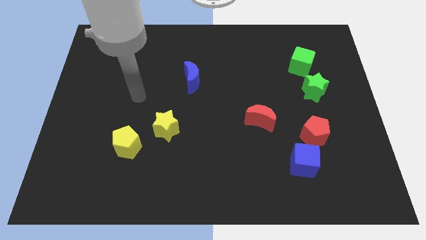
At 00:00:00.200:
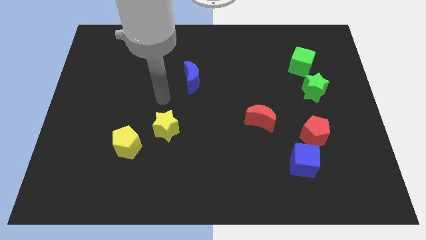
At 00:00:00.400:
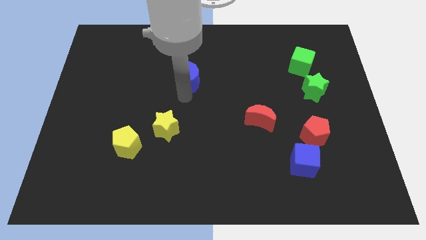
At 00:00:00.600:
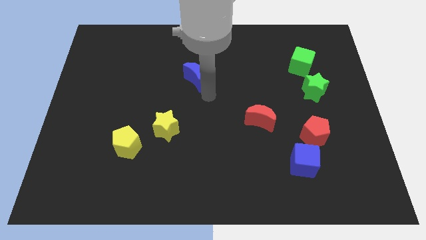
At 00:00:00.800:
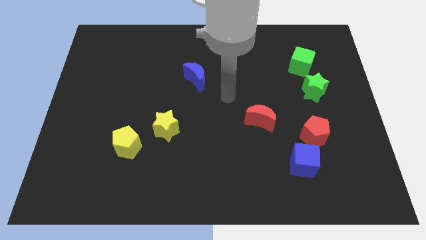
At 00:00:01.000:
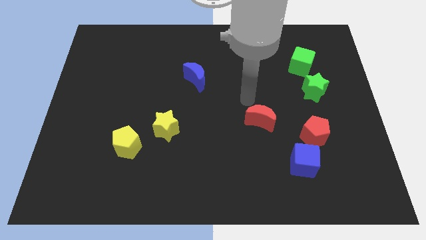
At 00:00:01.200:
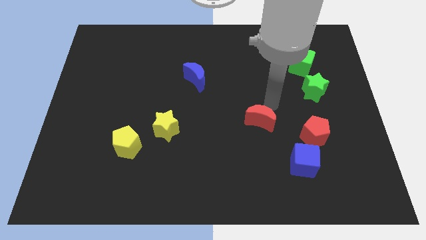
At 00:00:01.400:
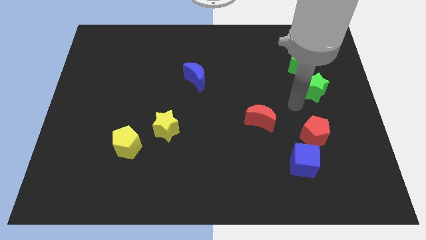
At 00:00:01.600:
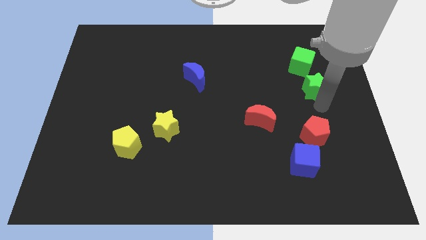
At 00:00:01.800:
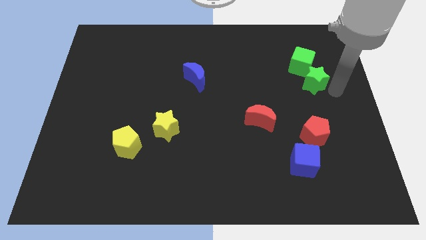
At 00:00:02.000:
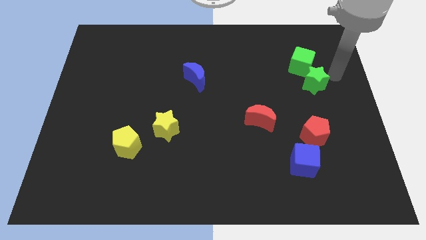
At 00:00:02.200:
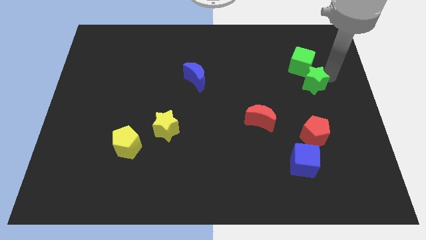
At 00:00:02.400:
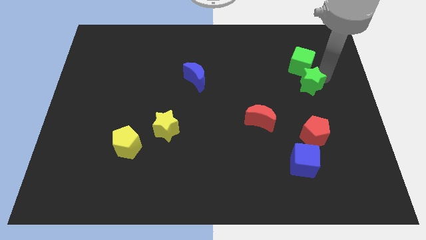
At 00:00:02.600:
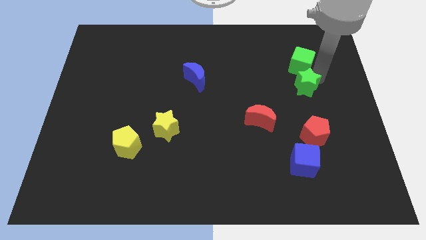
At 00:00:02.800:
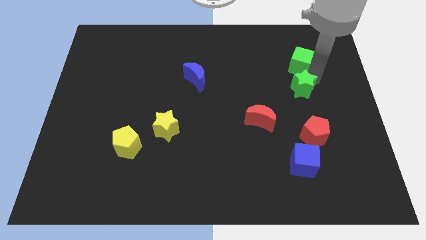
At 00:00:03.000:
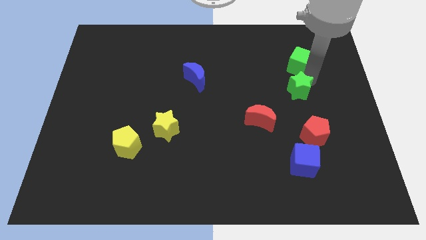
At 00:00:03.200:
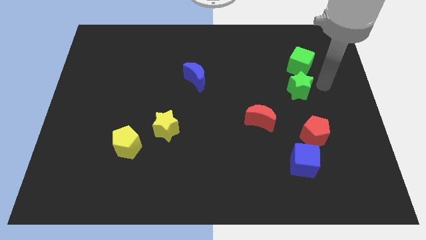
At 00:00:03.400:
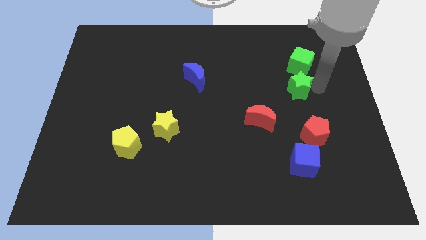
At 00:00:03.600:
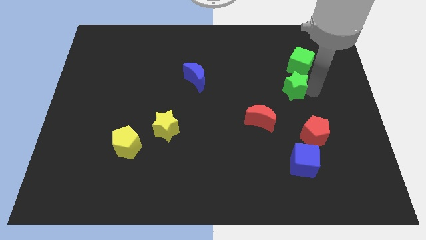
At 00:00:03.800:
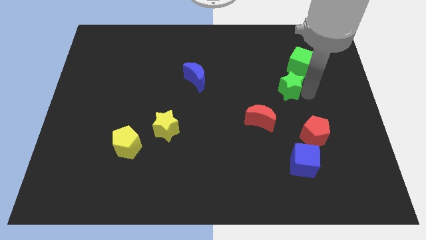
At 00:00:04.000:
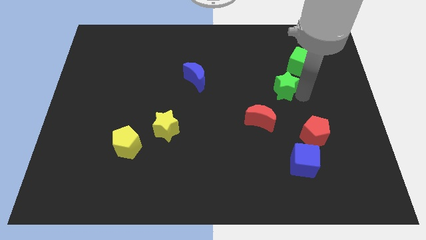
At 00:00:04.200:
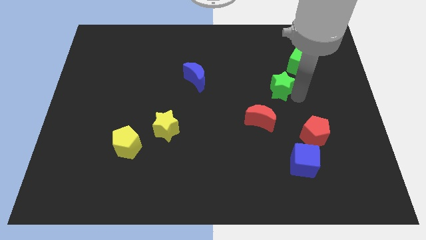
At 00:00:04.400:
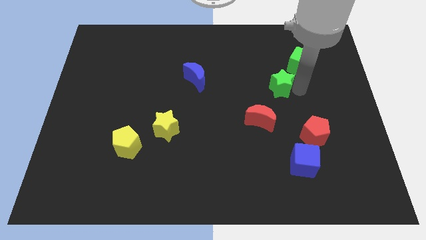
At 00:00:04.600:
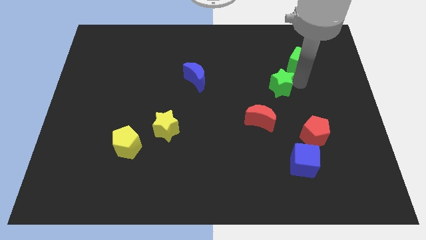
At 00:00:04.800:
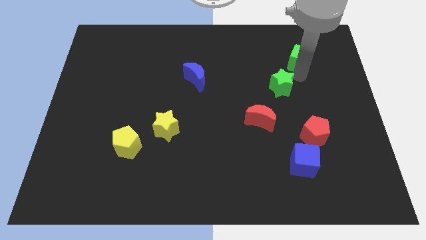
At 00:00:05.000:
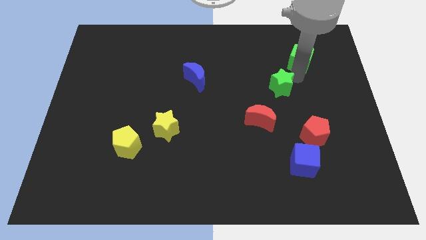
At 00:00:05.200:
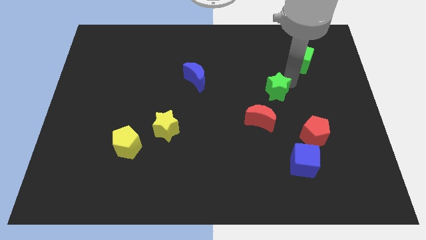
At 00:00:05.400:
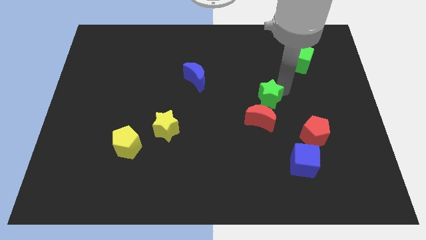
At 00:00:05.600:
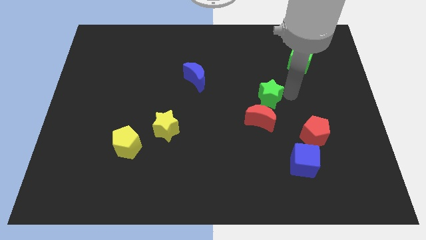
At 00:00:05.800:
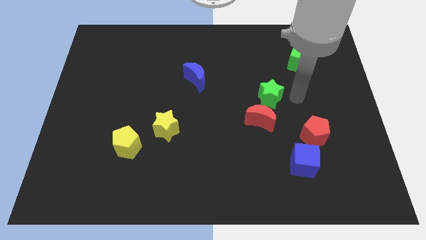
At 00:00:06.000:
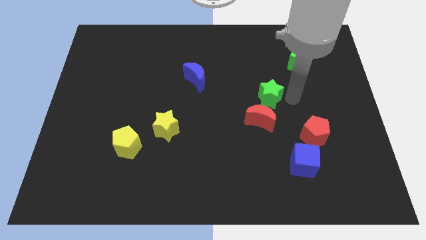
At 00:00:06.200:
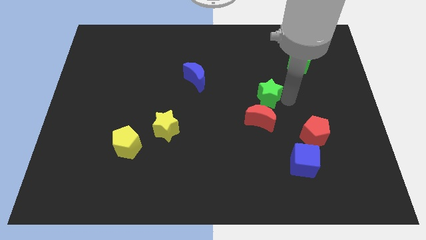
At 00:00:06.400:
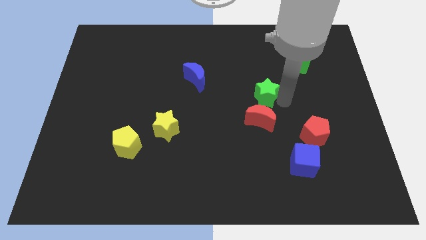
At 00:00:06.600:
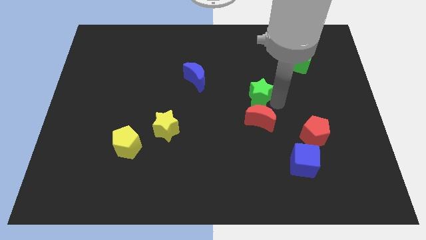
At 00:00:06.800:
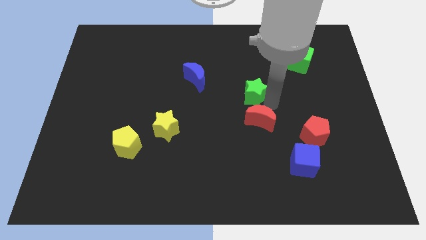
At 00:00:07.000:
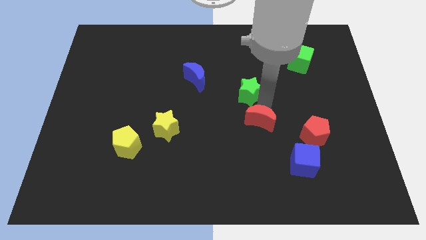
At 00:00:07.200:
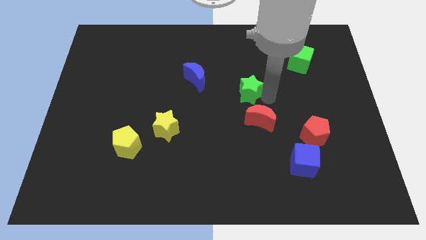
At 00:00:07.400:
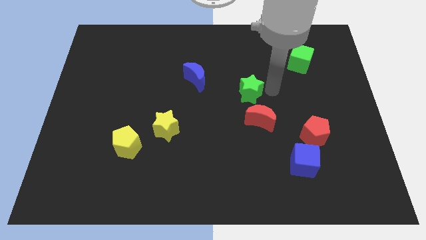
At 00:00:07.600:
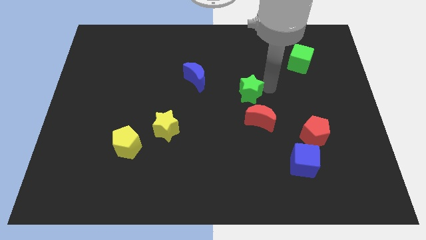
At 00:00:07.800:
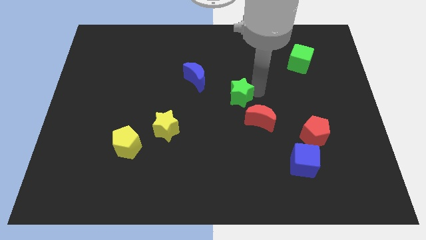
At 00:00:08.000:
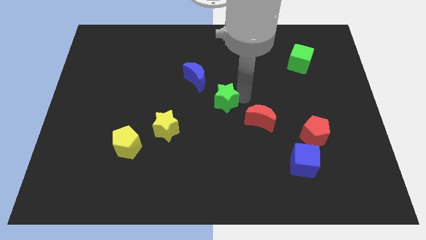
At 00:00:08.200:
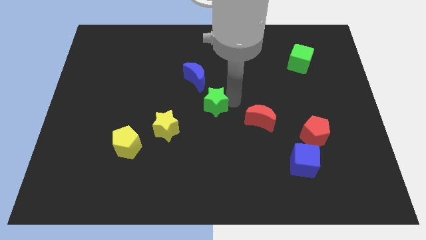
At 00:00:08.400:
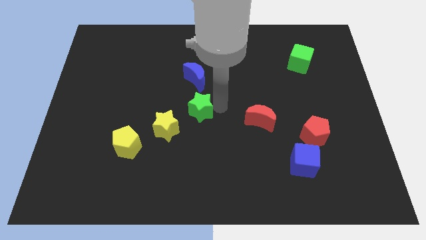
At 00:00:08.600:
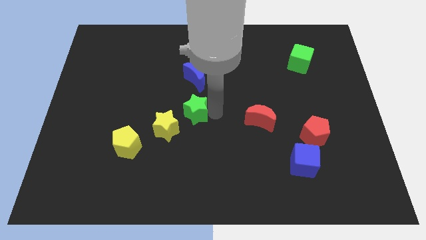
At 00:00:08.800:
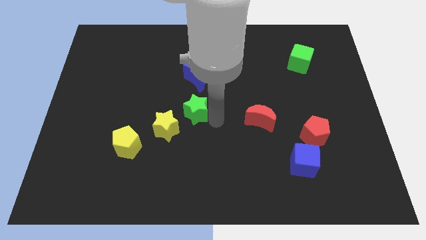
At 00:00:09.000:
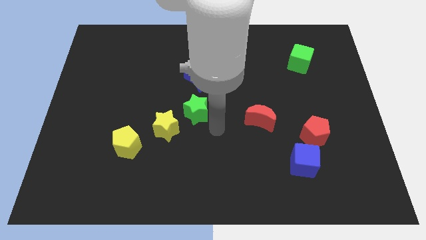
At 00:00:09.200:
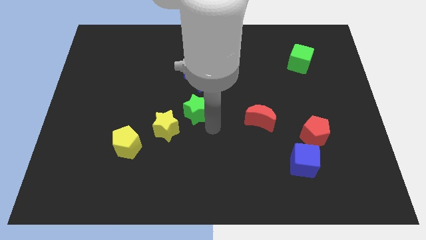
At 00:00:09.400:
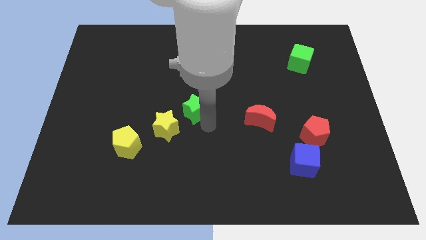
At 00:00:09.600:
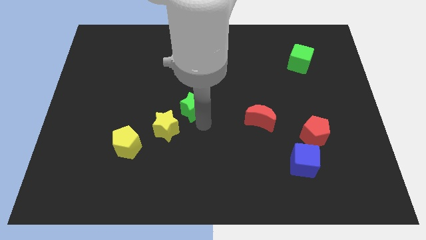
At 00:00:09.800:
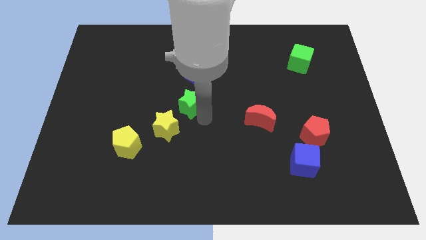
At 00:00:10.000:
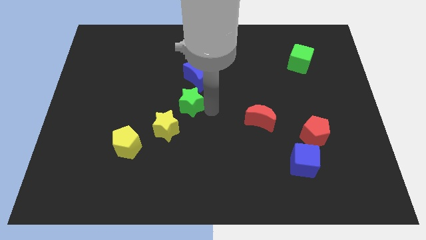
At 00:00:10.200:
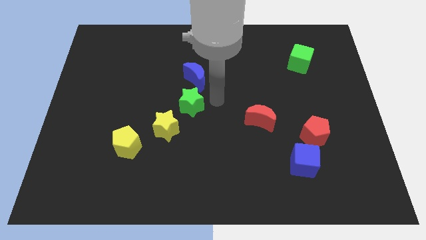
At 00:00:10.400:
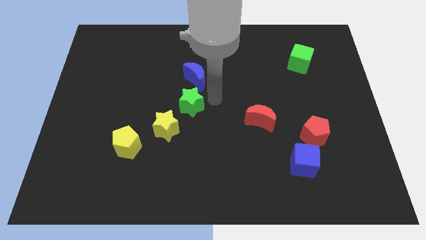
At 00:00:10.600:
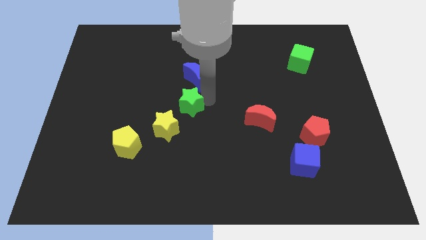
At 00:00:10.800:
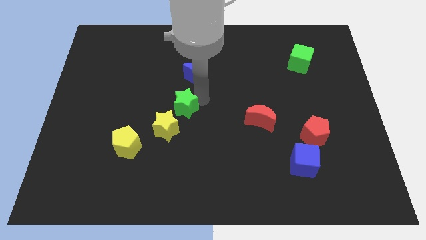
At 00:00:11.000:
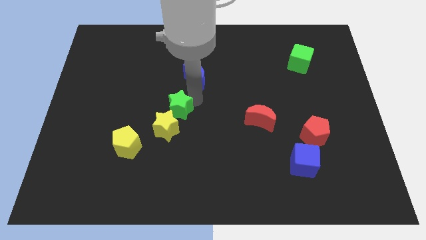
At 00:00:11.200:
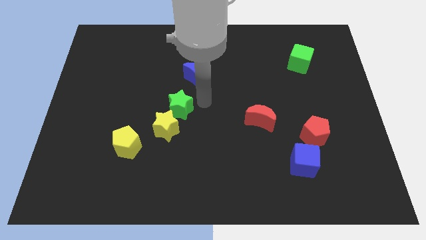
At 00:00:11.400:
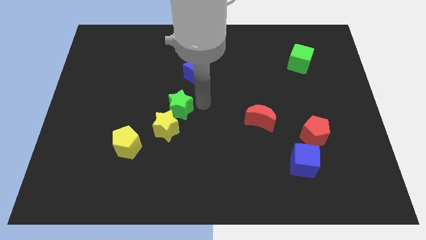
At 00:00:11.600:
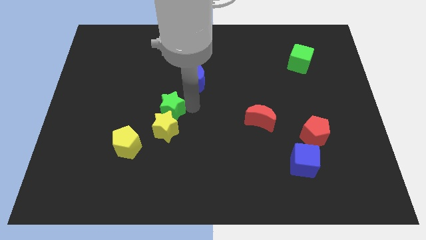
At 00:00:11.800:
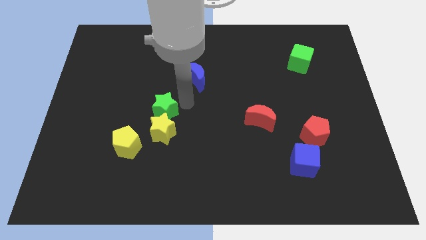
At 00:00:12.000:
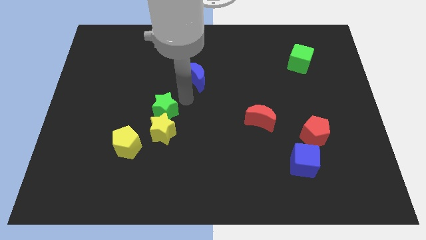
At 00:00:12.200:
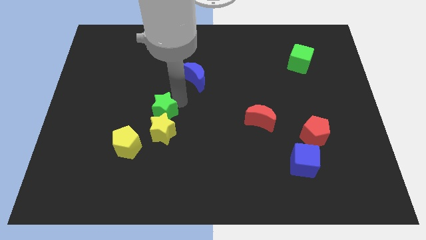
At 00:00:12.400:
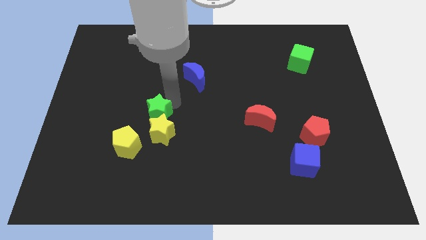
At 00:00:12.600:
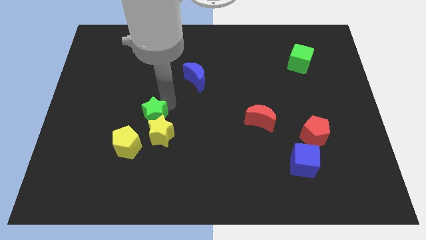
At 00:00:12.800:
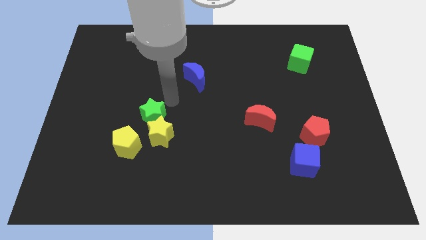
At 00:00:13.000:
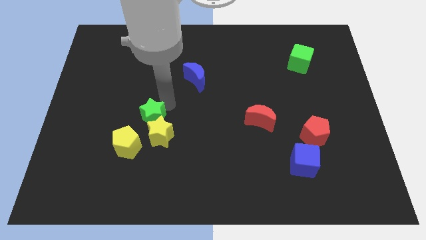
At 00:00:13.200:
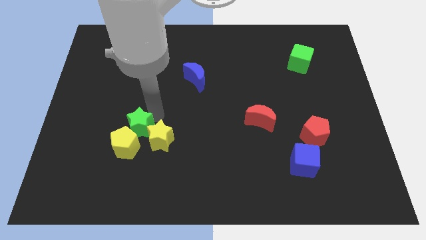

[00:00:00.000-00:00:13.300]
put the green star towards the yellow pentagon
